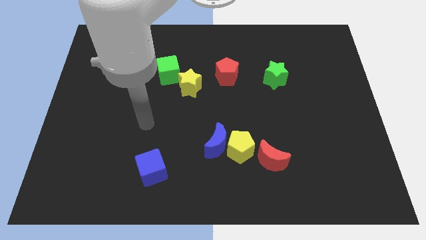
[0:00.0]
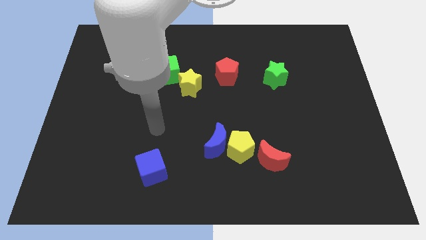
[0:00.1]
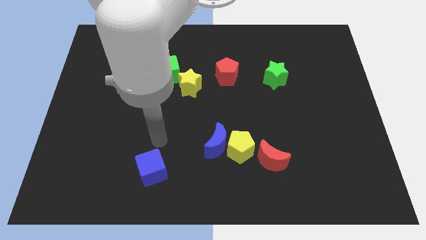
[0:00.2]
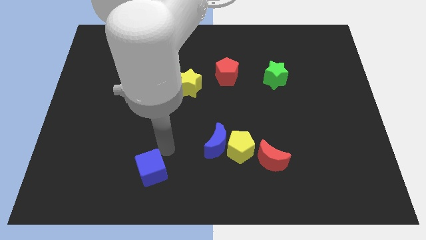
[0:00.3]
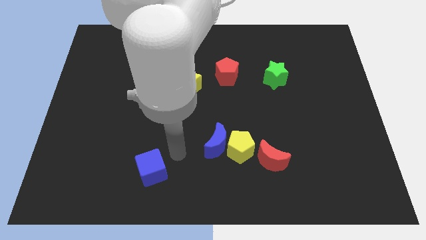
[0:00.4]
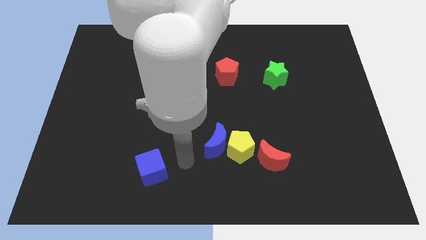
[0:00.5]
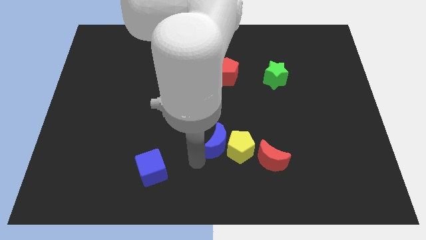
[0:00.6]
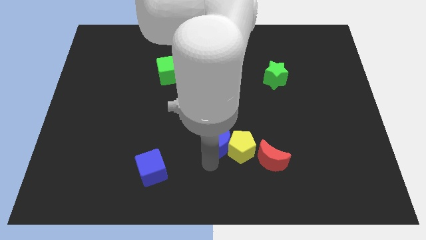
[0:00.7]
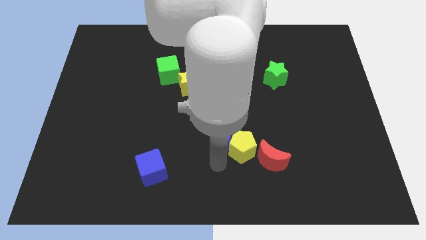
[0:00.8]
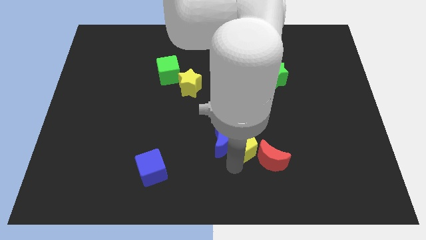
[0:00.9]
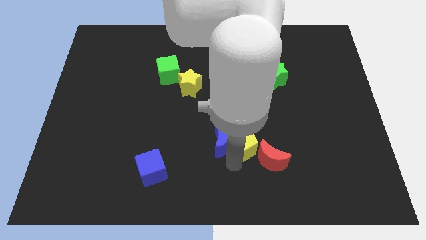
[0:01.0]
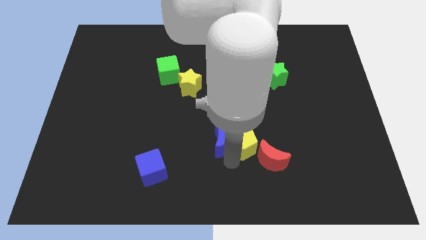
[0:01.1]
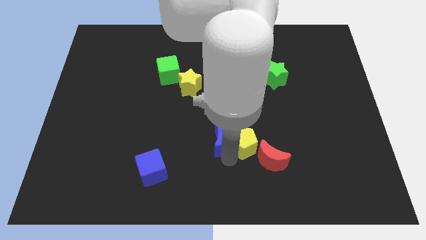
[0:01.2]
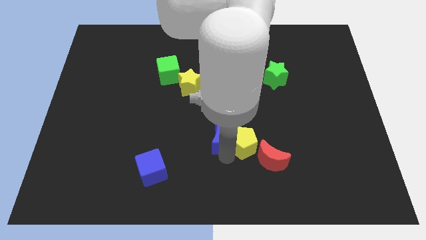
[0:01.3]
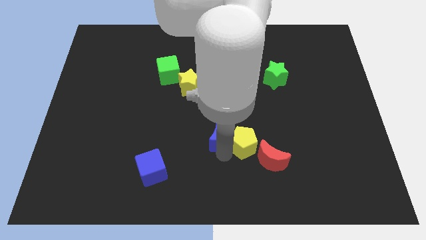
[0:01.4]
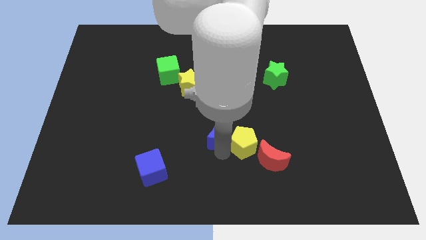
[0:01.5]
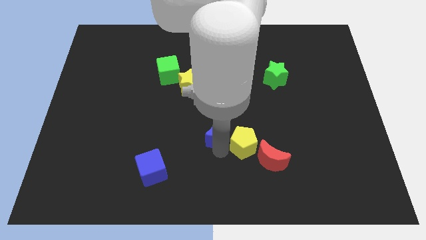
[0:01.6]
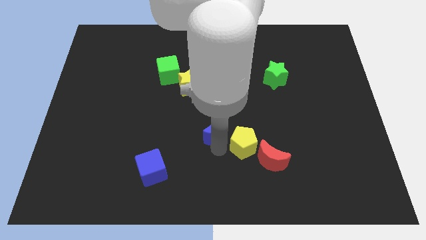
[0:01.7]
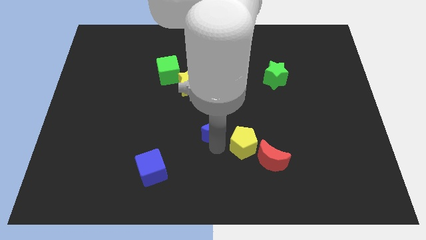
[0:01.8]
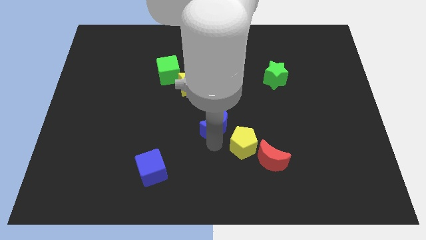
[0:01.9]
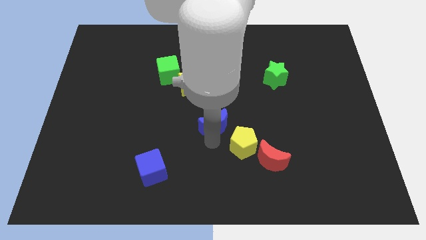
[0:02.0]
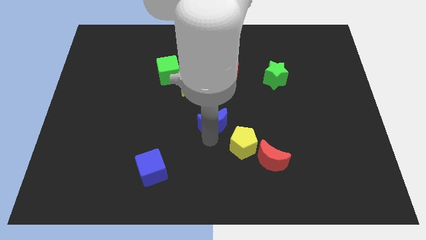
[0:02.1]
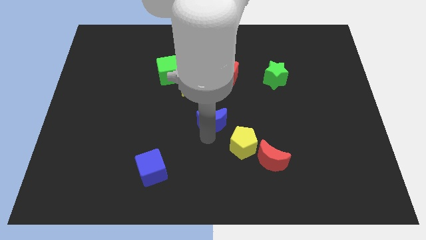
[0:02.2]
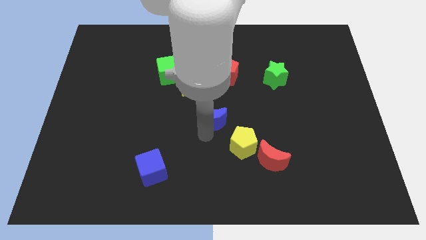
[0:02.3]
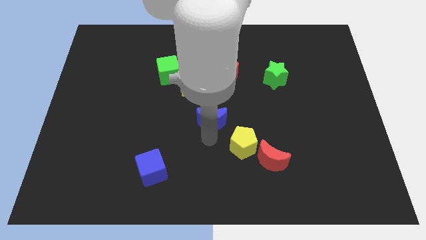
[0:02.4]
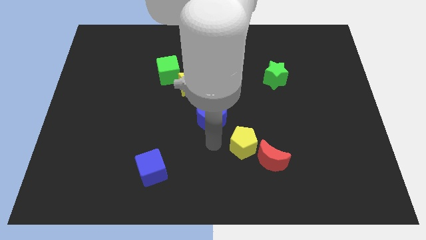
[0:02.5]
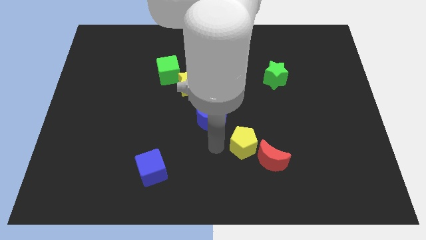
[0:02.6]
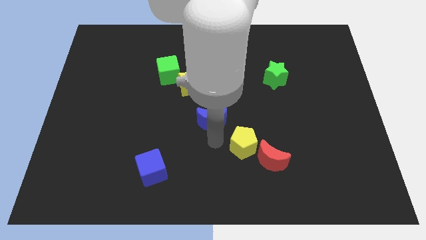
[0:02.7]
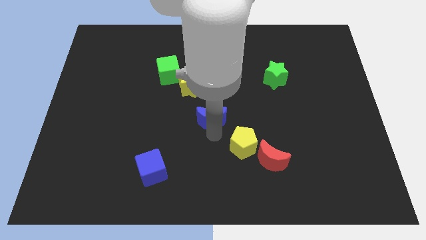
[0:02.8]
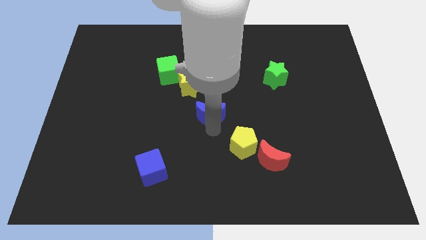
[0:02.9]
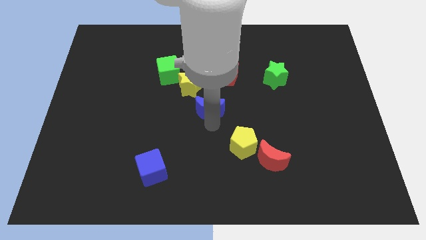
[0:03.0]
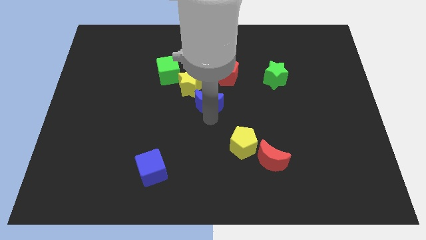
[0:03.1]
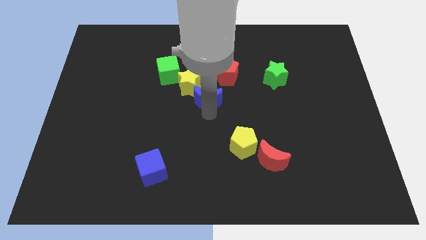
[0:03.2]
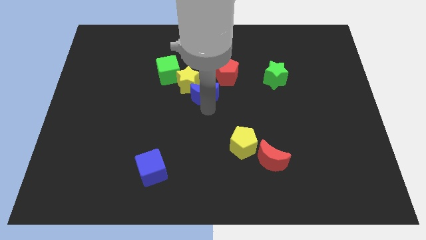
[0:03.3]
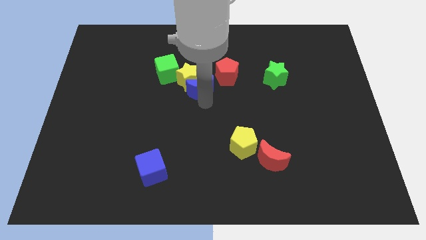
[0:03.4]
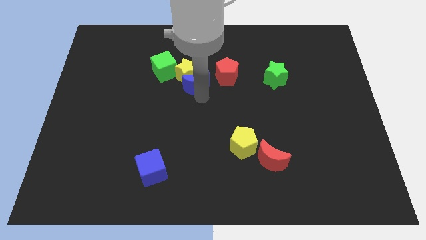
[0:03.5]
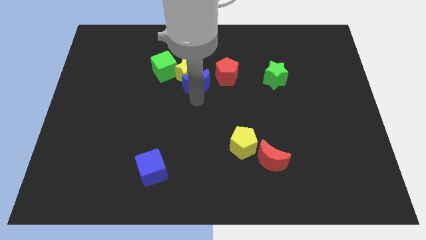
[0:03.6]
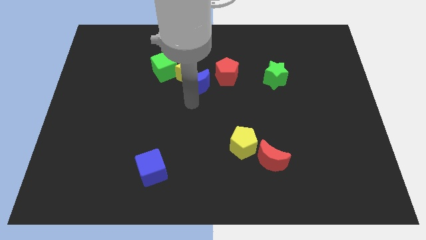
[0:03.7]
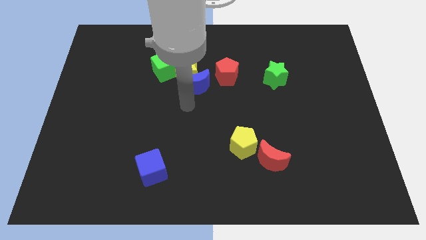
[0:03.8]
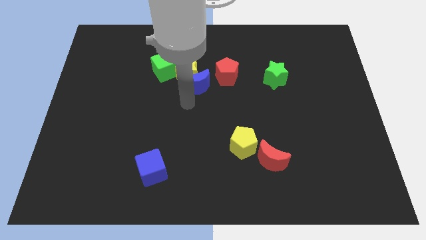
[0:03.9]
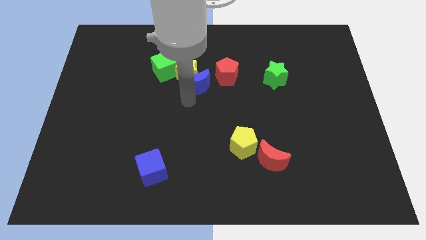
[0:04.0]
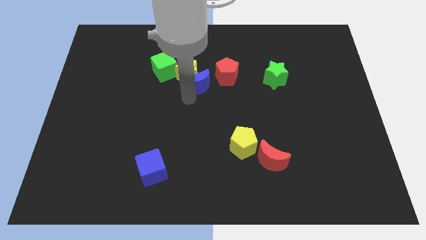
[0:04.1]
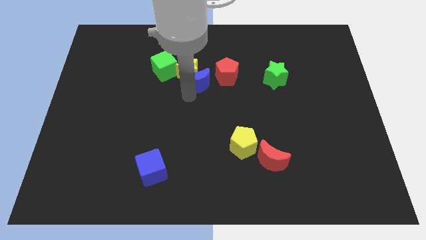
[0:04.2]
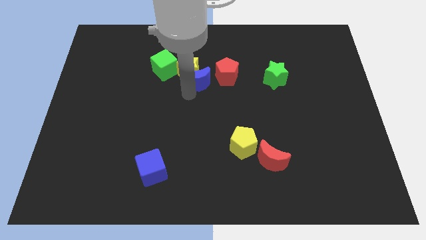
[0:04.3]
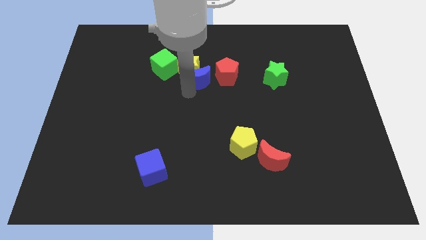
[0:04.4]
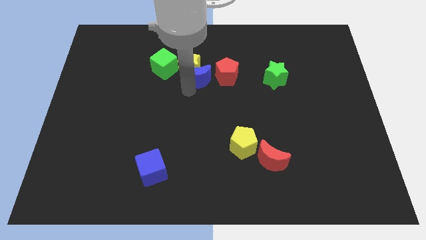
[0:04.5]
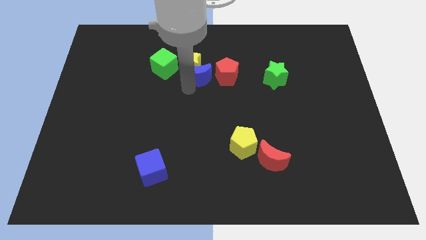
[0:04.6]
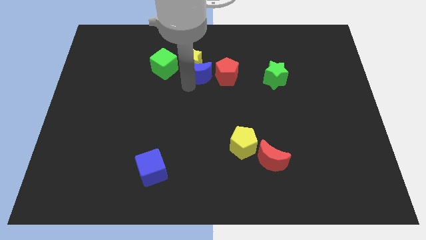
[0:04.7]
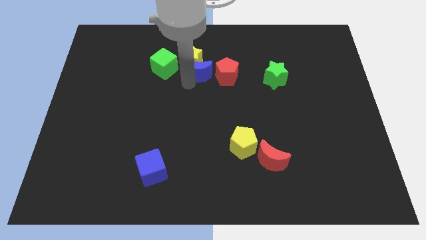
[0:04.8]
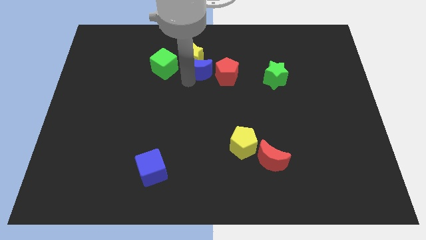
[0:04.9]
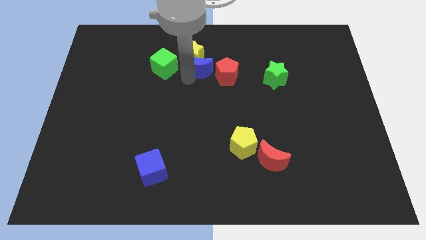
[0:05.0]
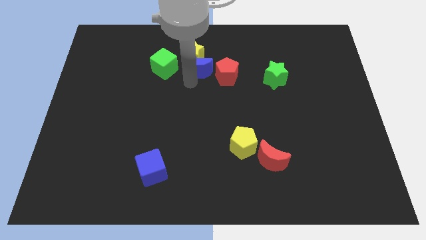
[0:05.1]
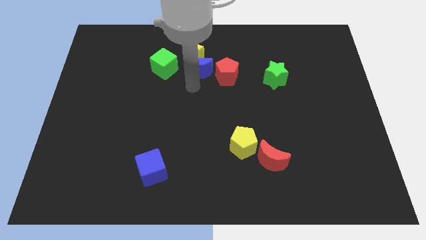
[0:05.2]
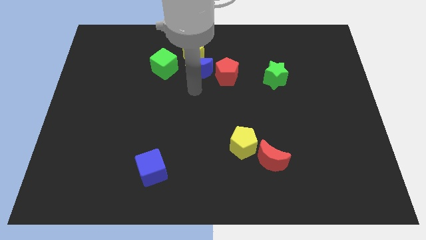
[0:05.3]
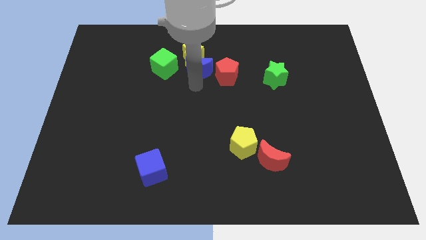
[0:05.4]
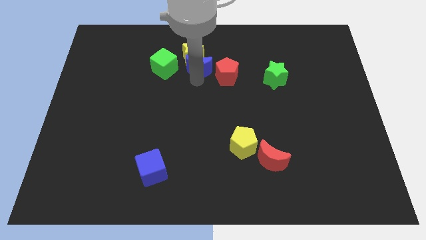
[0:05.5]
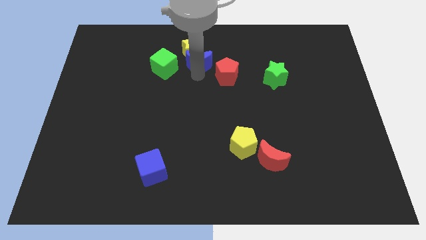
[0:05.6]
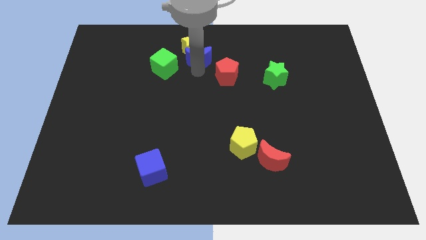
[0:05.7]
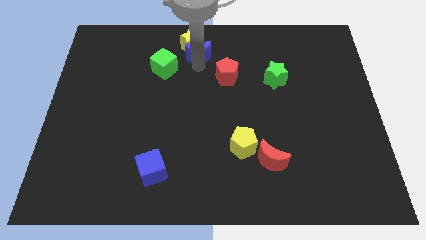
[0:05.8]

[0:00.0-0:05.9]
put the blue moon to the top

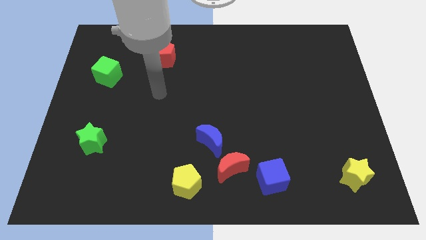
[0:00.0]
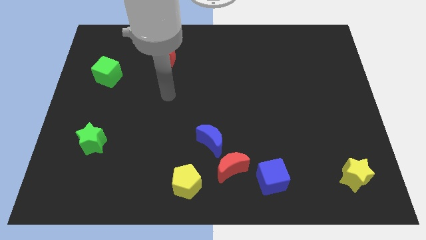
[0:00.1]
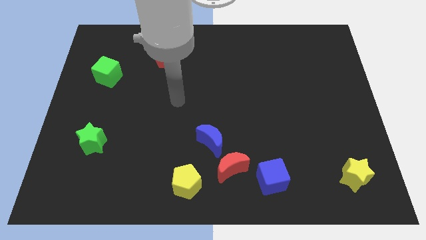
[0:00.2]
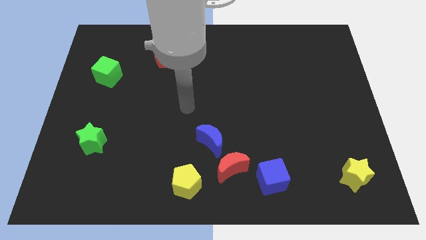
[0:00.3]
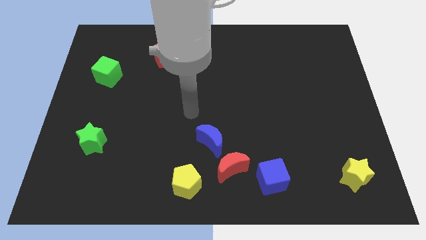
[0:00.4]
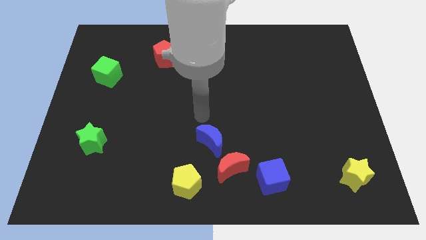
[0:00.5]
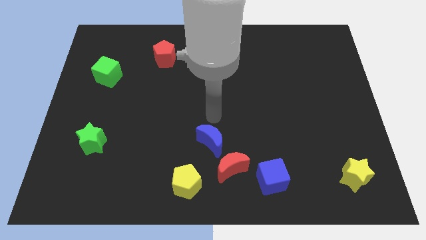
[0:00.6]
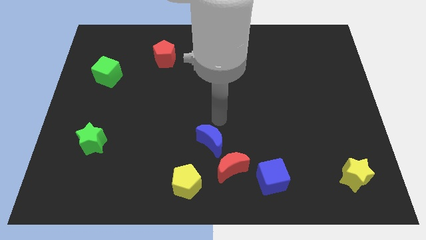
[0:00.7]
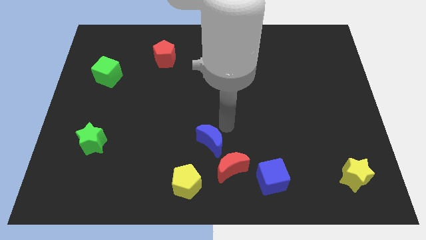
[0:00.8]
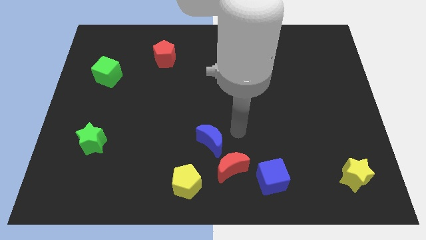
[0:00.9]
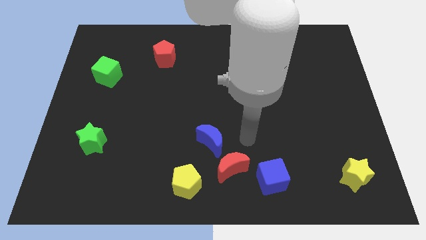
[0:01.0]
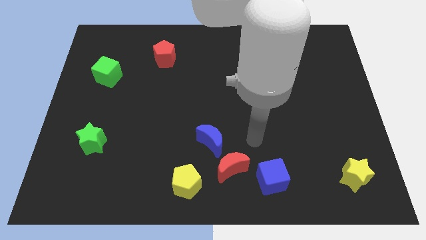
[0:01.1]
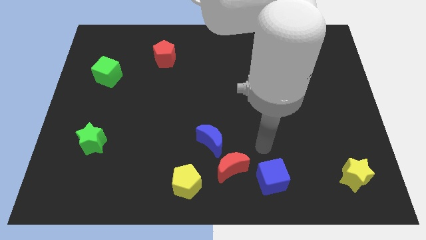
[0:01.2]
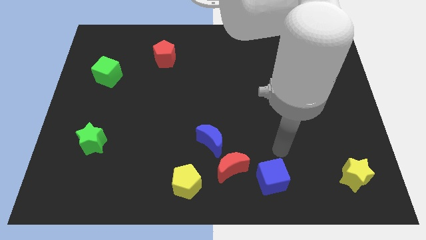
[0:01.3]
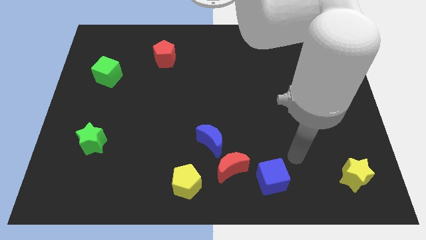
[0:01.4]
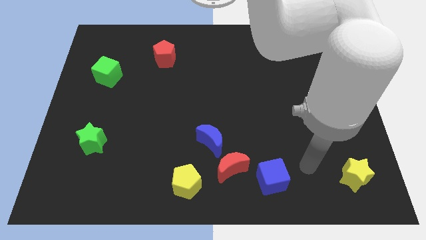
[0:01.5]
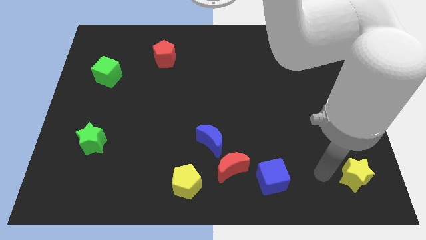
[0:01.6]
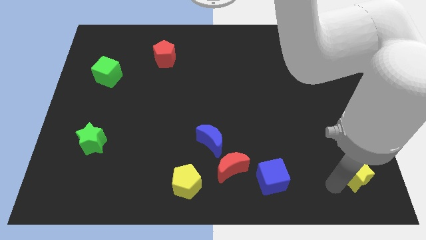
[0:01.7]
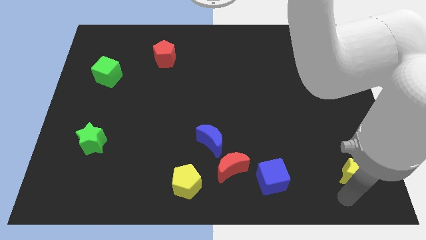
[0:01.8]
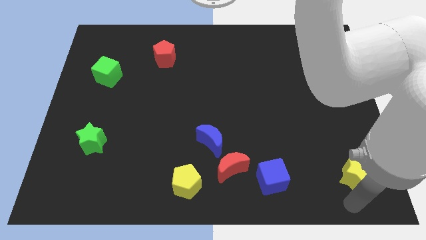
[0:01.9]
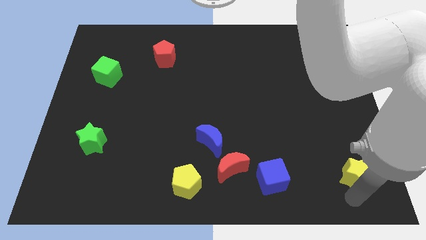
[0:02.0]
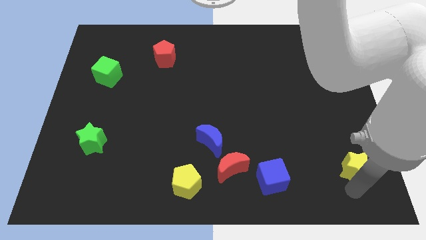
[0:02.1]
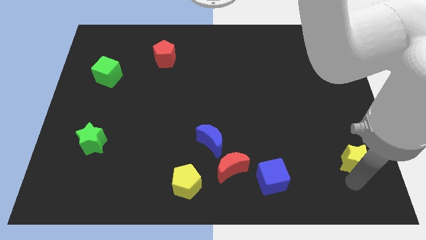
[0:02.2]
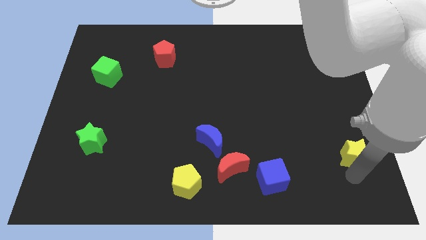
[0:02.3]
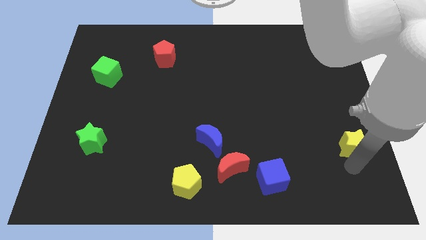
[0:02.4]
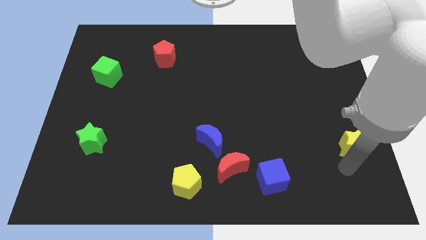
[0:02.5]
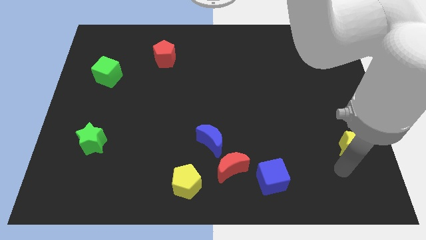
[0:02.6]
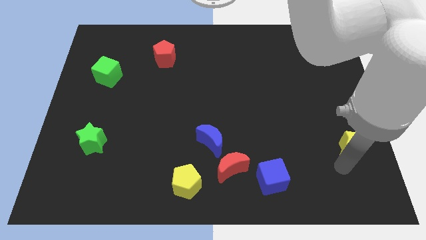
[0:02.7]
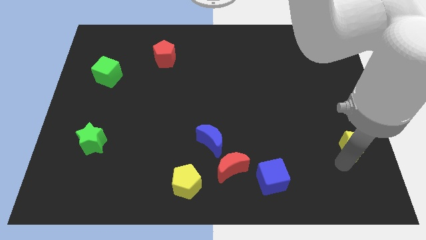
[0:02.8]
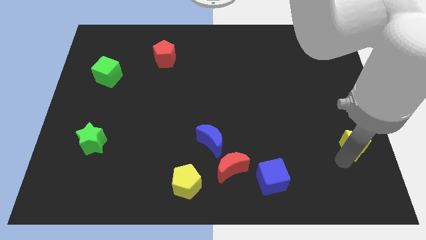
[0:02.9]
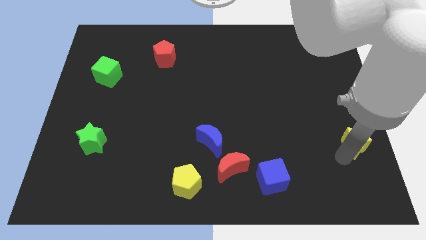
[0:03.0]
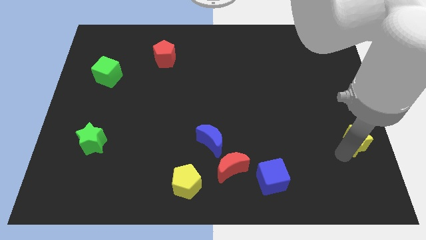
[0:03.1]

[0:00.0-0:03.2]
slide the yellow star to the center right
